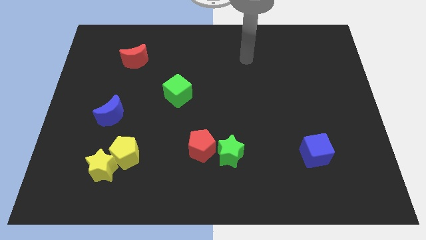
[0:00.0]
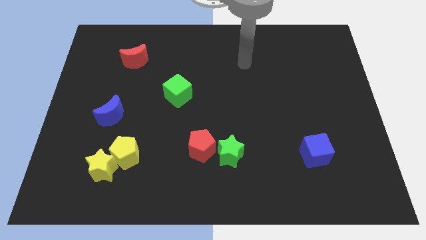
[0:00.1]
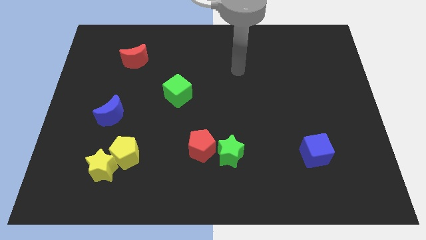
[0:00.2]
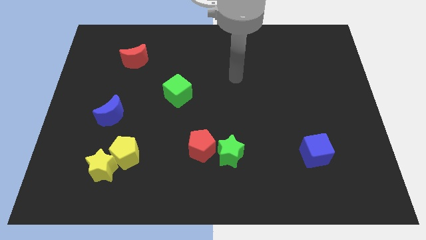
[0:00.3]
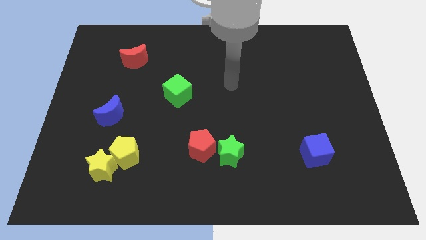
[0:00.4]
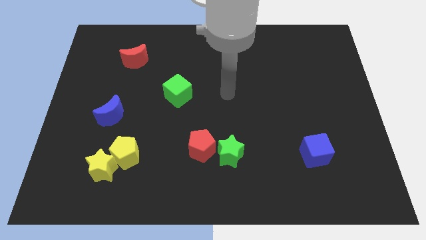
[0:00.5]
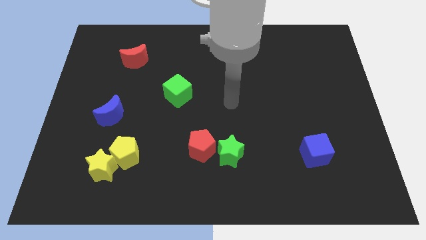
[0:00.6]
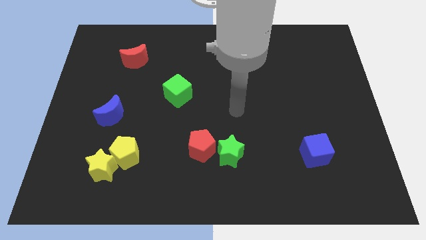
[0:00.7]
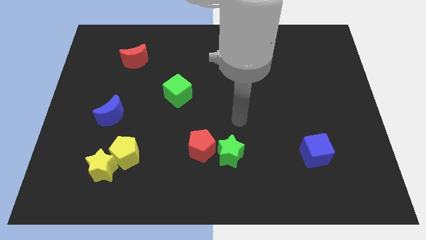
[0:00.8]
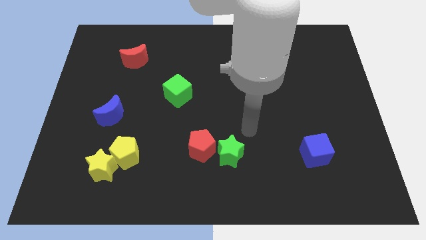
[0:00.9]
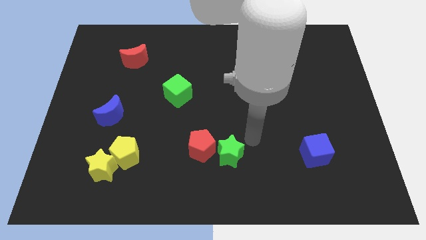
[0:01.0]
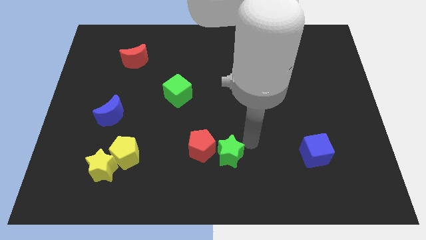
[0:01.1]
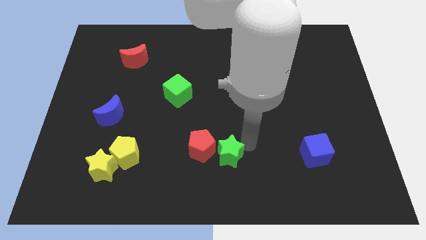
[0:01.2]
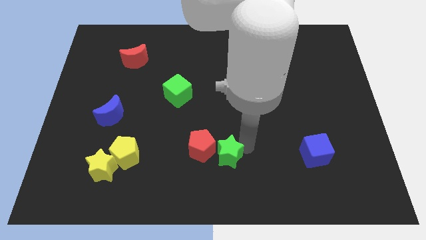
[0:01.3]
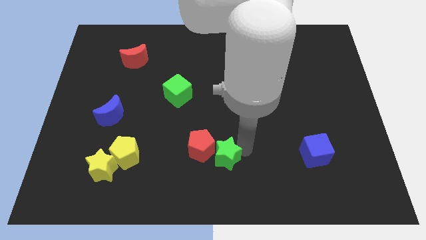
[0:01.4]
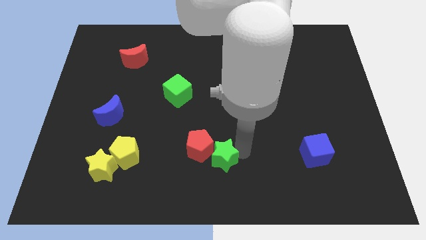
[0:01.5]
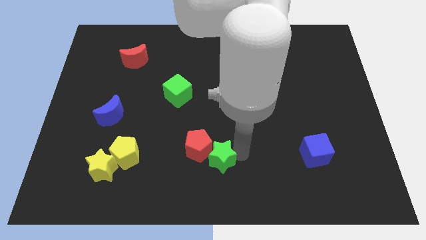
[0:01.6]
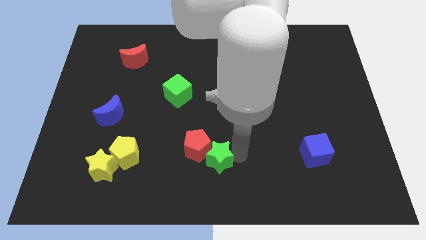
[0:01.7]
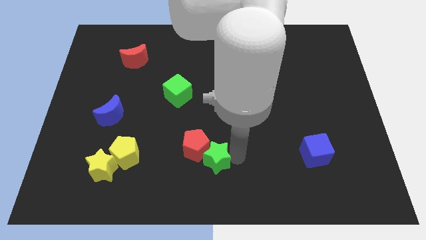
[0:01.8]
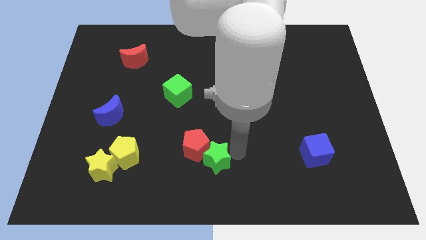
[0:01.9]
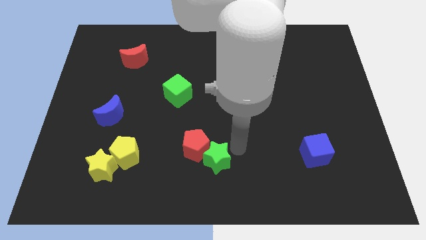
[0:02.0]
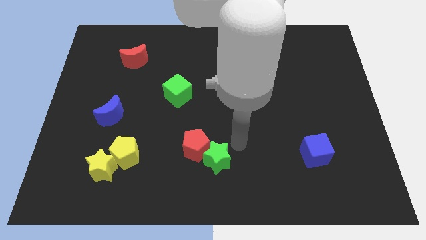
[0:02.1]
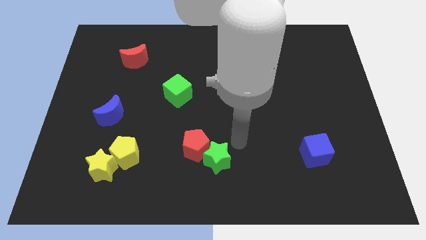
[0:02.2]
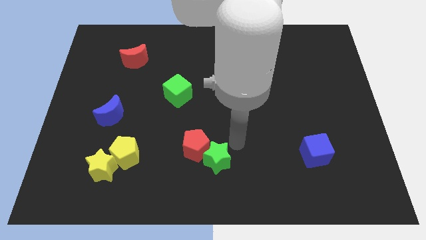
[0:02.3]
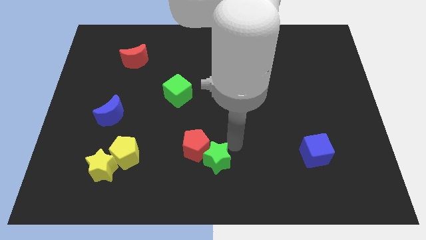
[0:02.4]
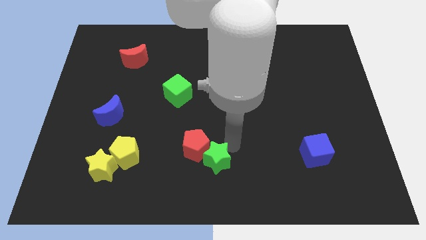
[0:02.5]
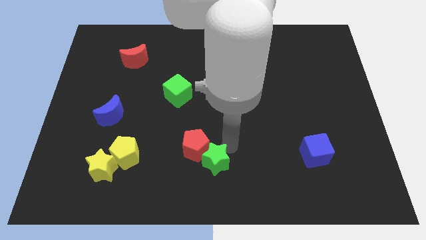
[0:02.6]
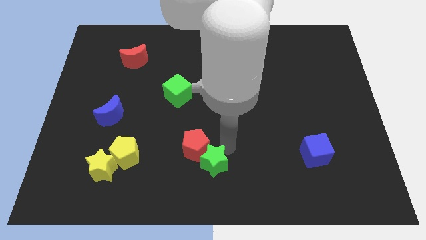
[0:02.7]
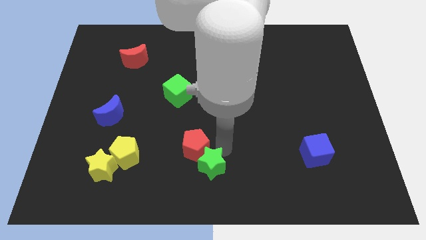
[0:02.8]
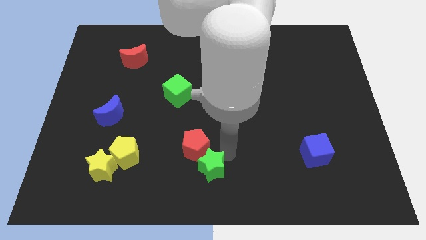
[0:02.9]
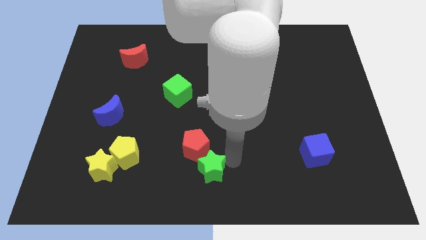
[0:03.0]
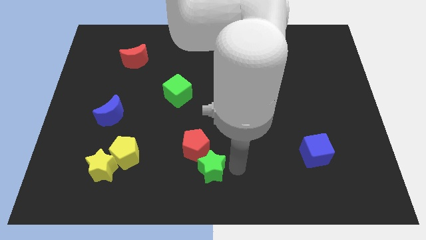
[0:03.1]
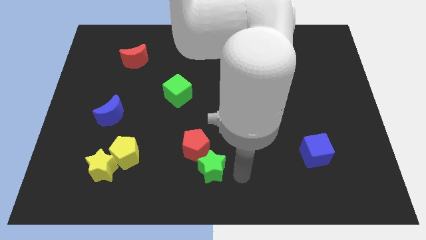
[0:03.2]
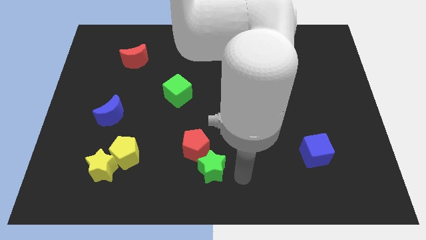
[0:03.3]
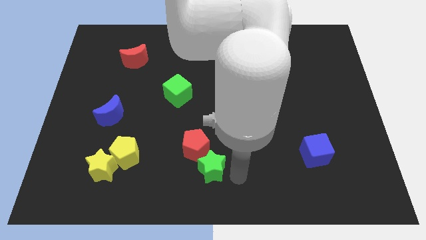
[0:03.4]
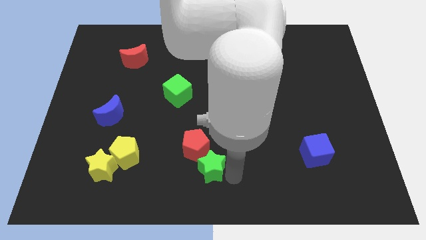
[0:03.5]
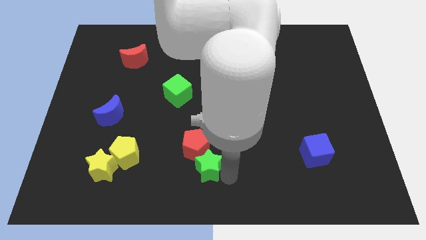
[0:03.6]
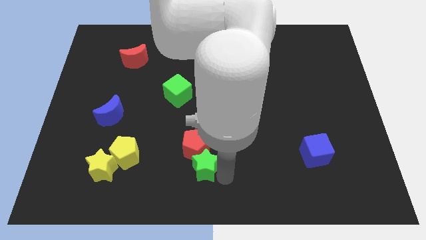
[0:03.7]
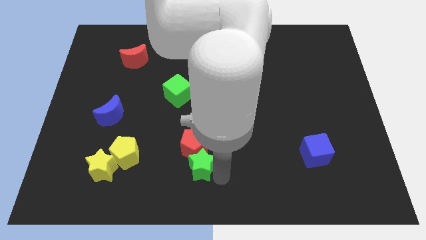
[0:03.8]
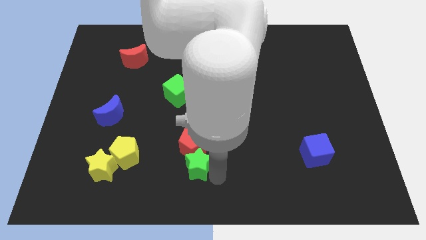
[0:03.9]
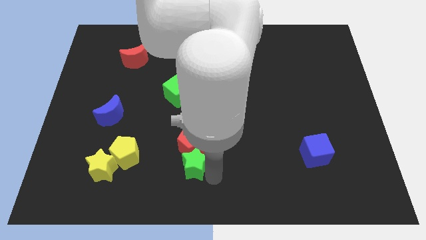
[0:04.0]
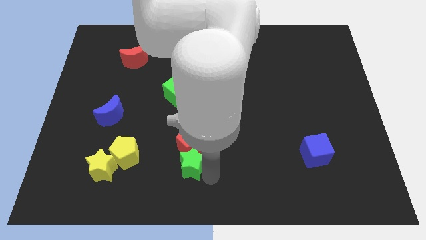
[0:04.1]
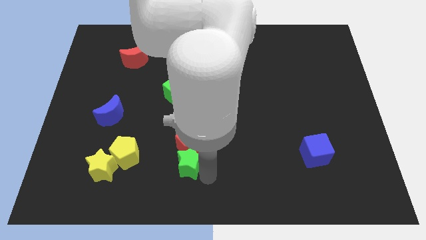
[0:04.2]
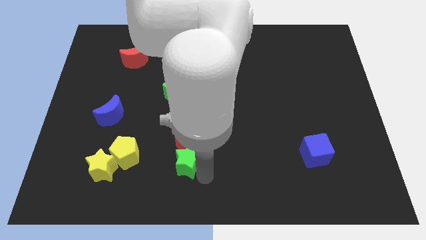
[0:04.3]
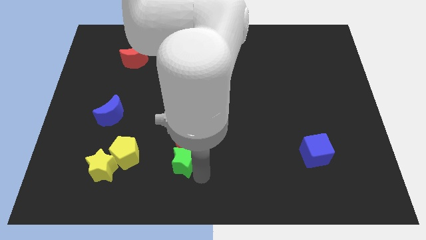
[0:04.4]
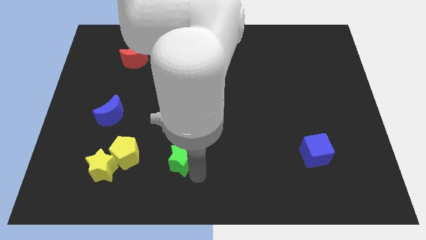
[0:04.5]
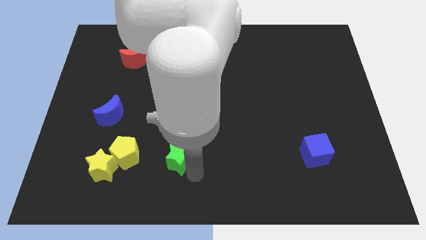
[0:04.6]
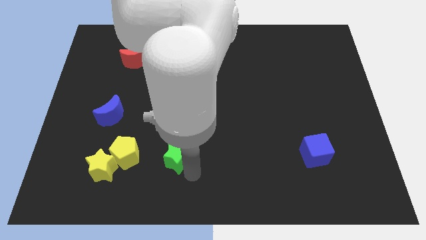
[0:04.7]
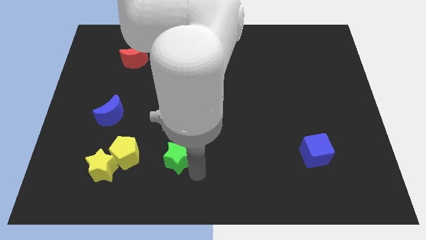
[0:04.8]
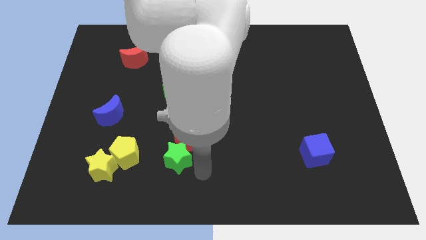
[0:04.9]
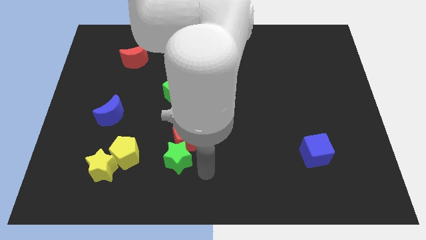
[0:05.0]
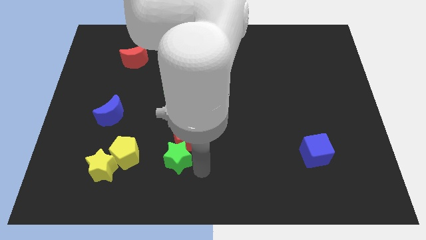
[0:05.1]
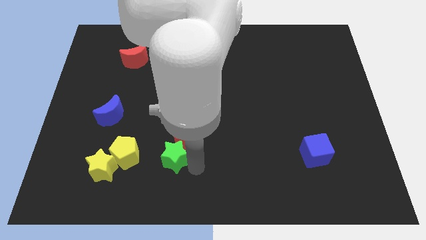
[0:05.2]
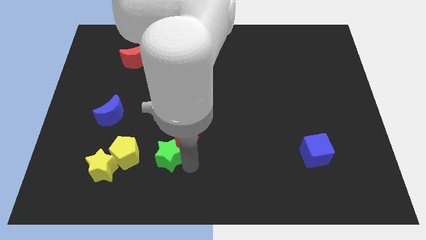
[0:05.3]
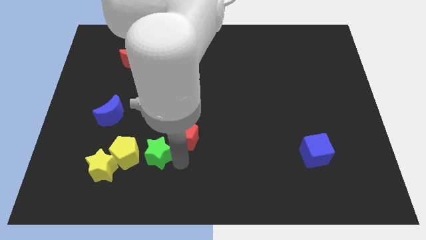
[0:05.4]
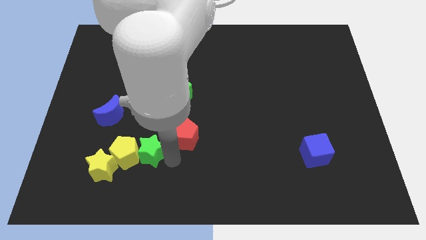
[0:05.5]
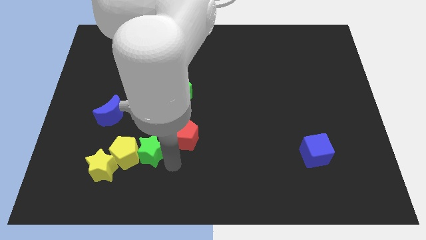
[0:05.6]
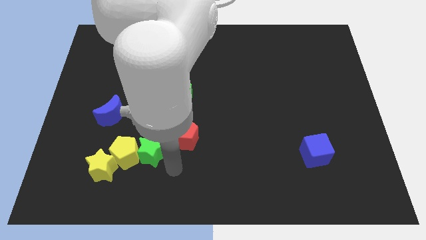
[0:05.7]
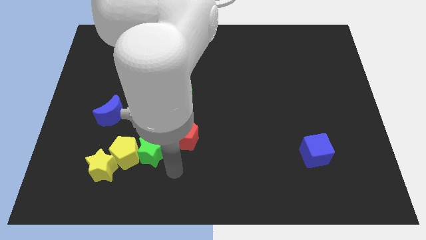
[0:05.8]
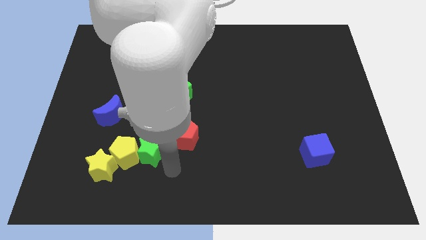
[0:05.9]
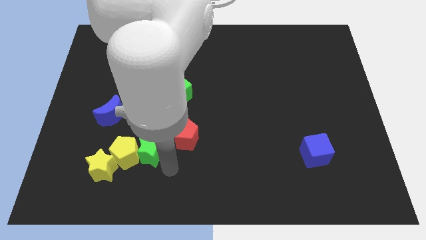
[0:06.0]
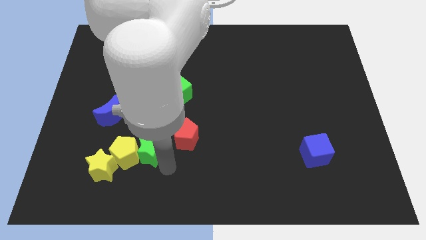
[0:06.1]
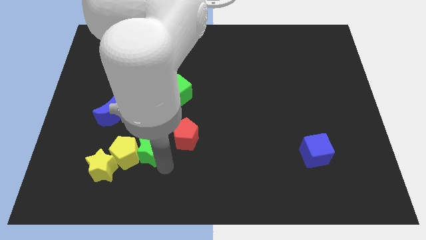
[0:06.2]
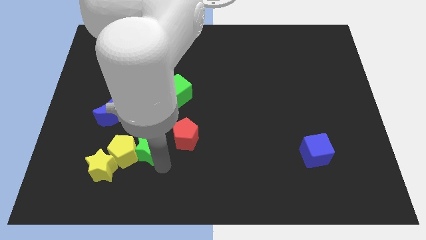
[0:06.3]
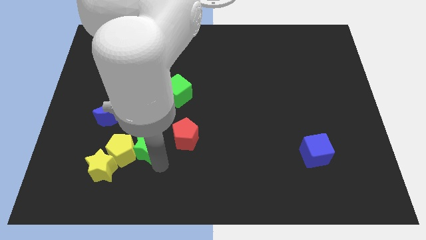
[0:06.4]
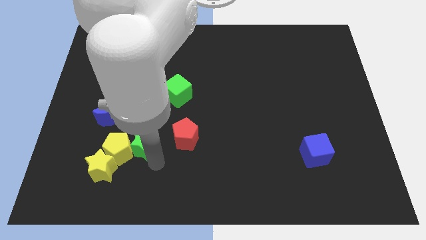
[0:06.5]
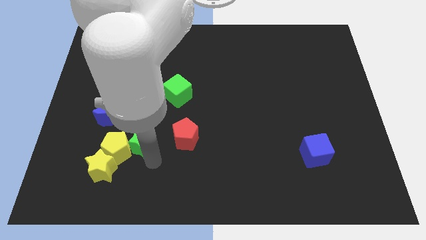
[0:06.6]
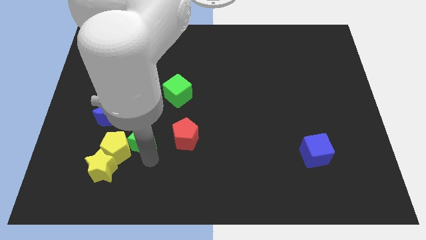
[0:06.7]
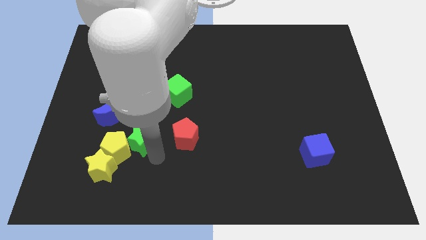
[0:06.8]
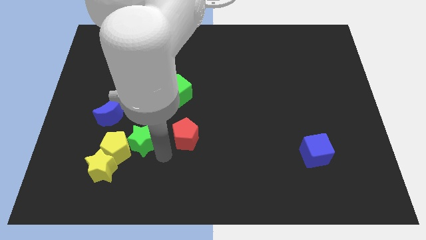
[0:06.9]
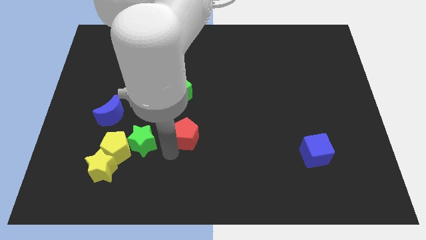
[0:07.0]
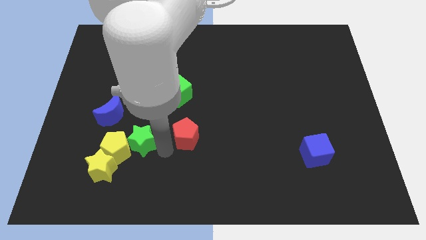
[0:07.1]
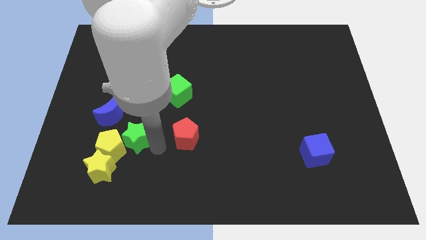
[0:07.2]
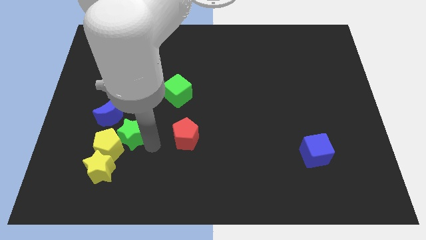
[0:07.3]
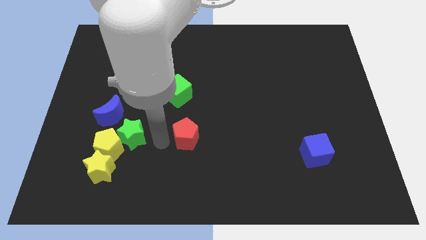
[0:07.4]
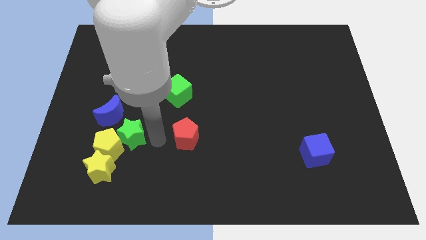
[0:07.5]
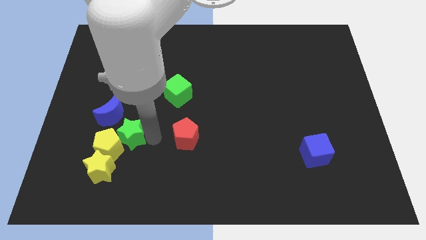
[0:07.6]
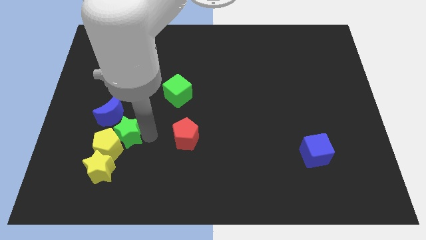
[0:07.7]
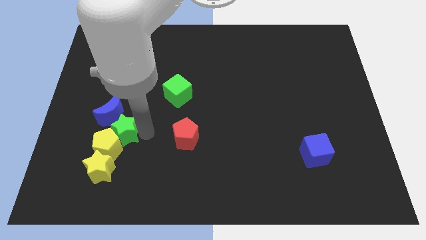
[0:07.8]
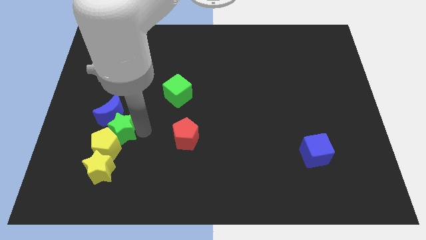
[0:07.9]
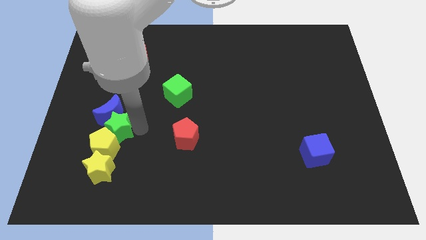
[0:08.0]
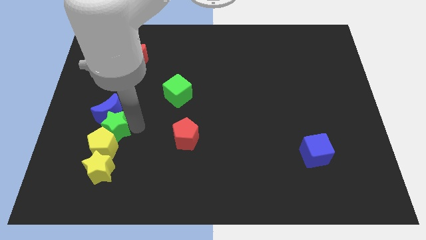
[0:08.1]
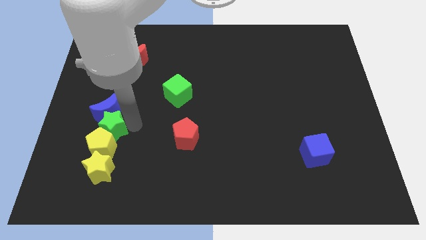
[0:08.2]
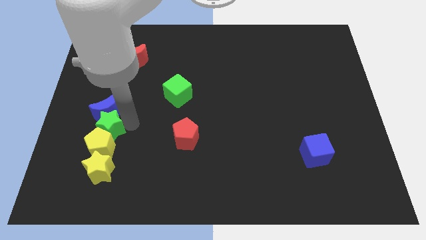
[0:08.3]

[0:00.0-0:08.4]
push the green star diagonally up and to the left of the yellow pentagon
